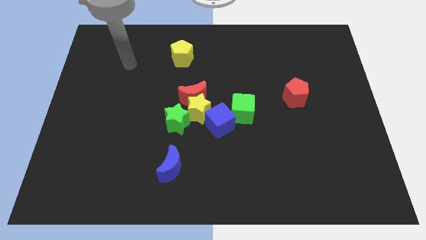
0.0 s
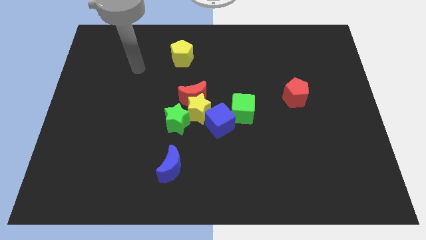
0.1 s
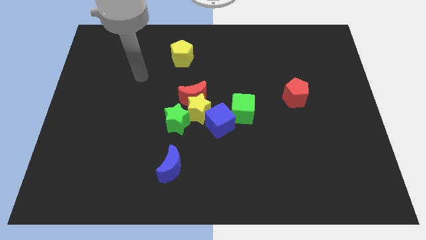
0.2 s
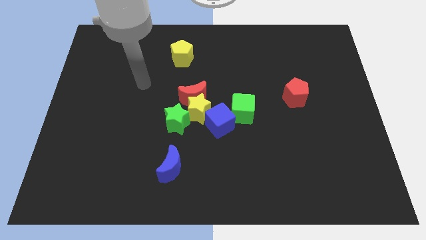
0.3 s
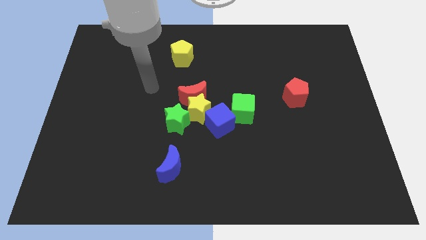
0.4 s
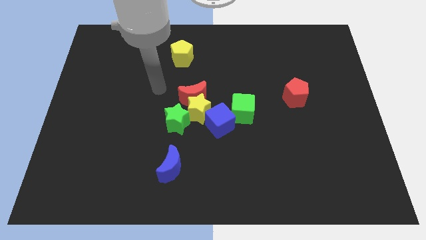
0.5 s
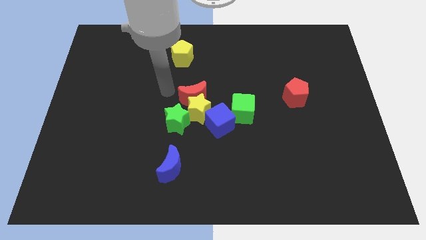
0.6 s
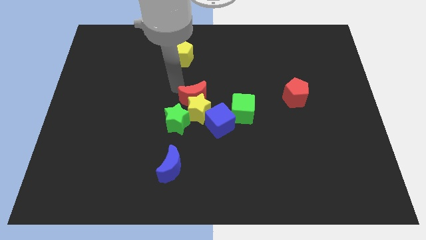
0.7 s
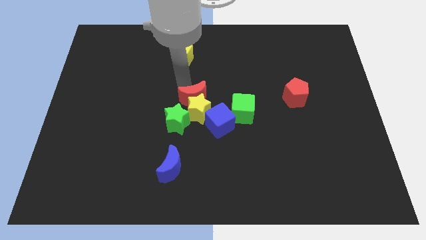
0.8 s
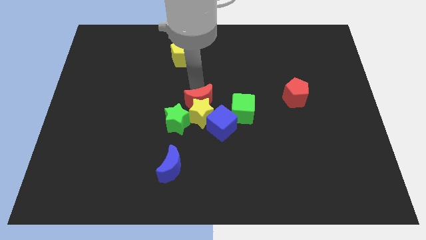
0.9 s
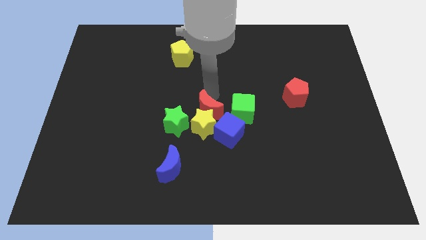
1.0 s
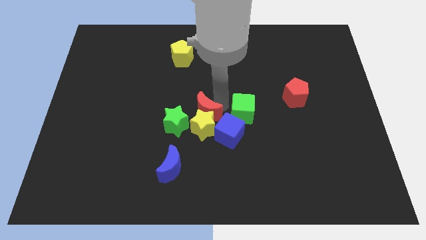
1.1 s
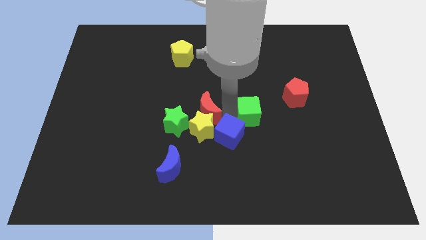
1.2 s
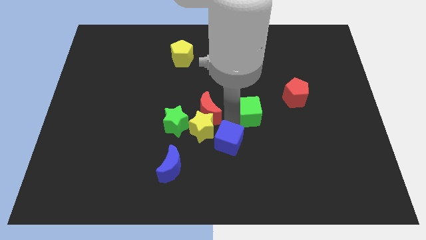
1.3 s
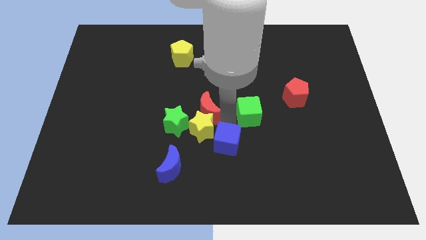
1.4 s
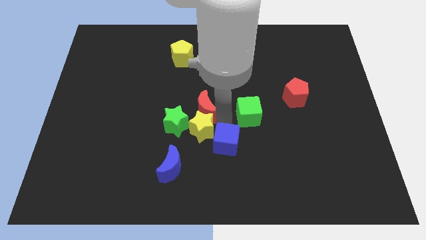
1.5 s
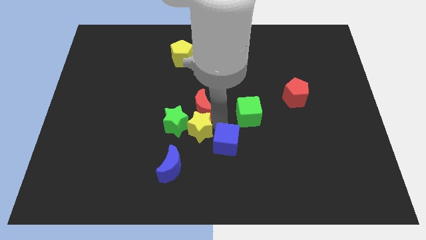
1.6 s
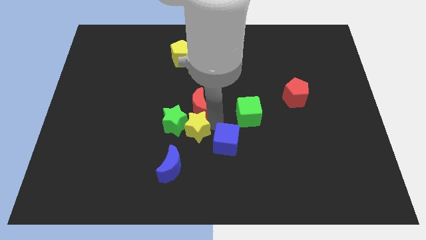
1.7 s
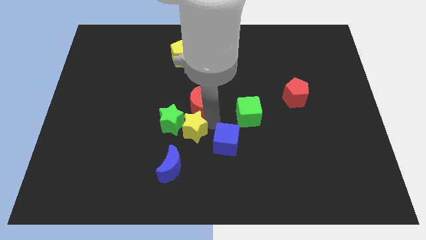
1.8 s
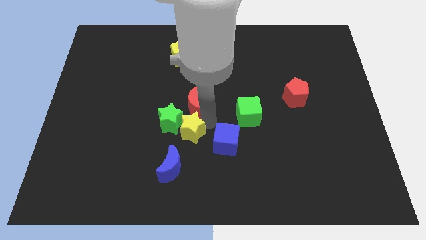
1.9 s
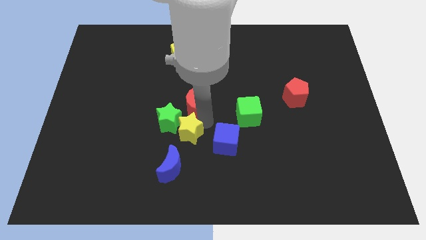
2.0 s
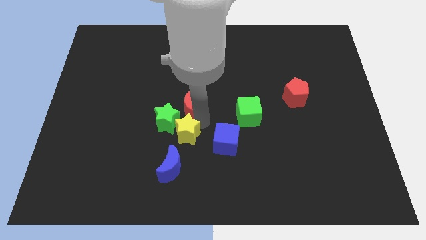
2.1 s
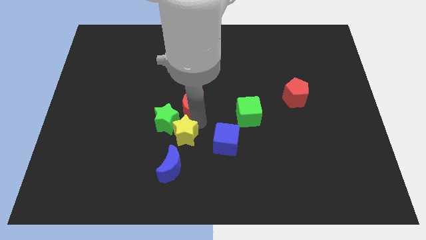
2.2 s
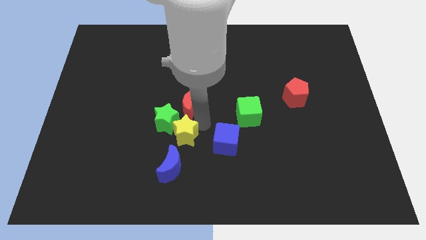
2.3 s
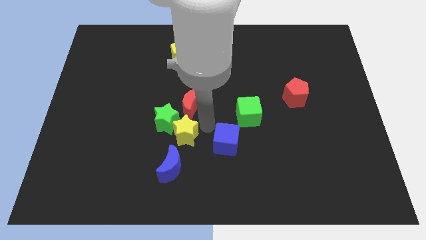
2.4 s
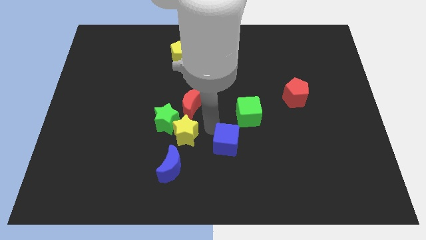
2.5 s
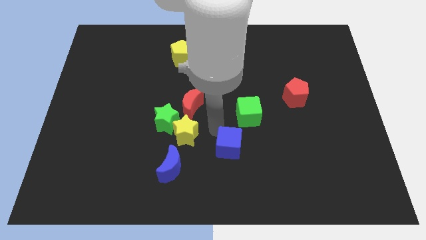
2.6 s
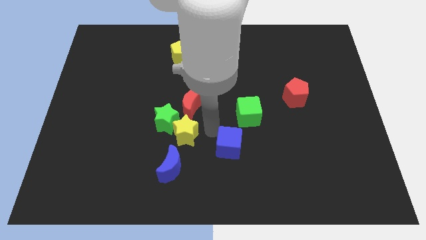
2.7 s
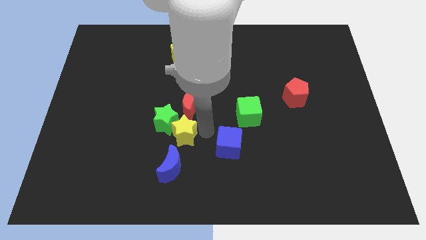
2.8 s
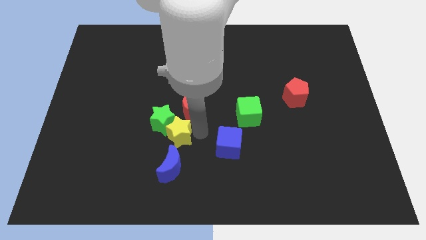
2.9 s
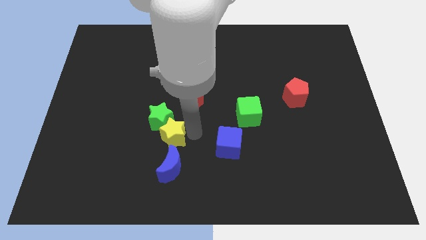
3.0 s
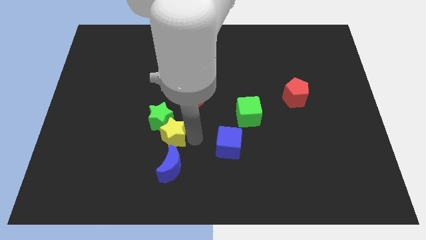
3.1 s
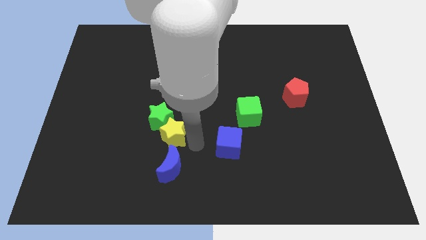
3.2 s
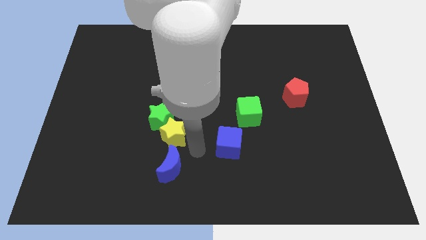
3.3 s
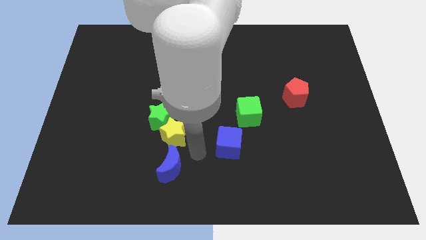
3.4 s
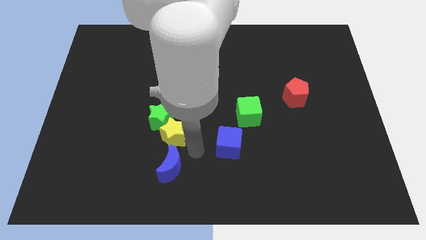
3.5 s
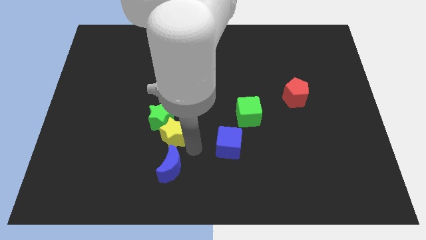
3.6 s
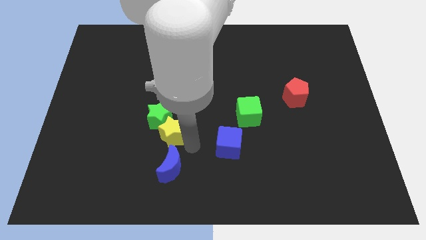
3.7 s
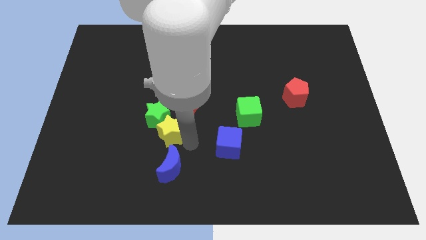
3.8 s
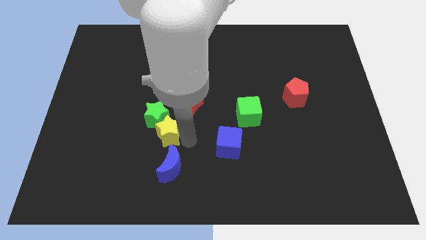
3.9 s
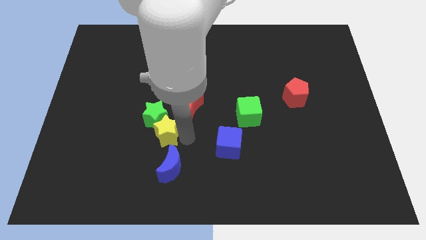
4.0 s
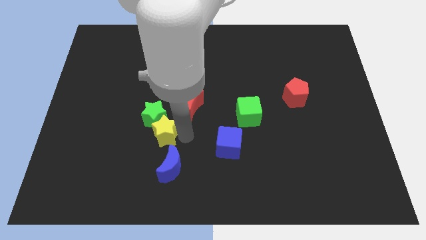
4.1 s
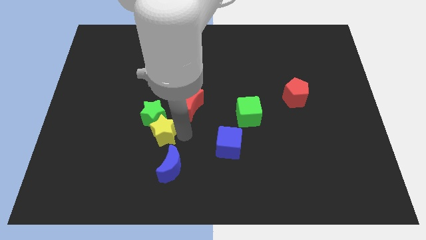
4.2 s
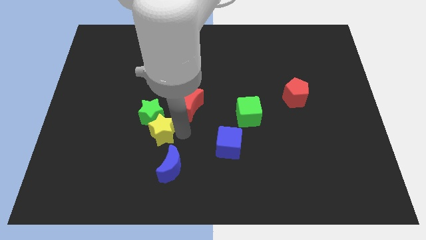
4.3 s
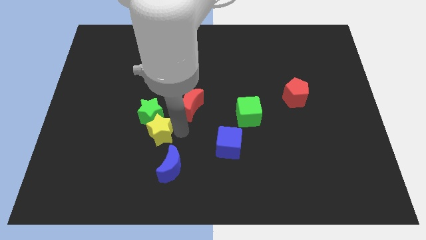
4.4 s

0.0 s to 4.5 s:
pull the yellow star apart from the clump

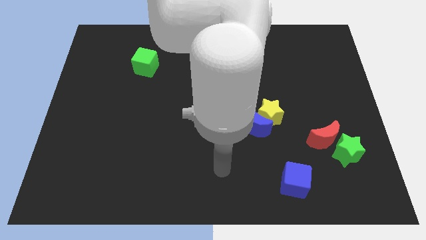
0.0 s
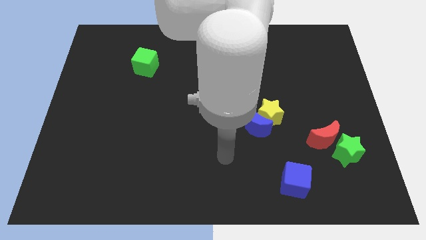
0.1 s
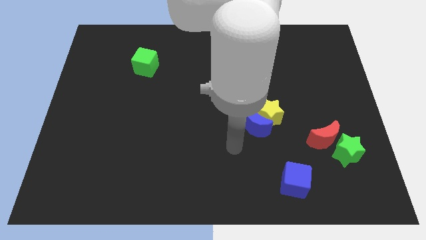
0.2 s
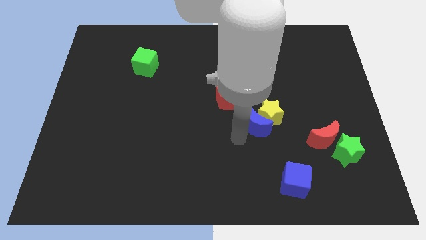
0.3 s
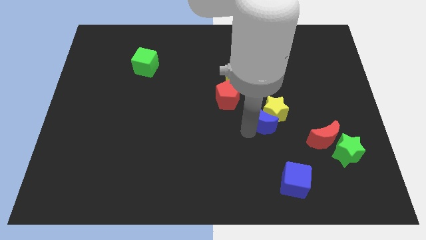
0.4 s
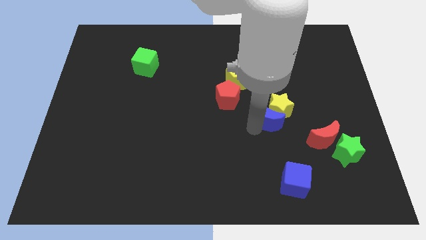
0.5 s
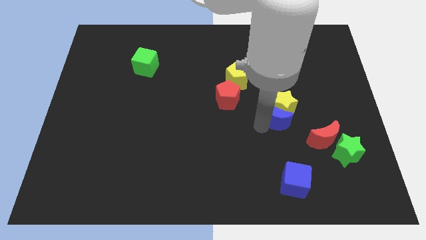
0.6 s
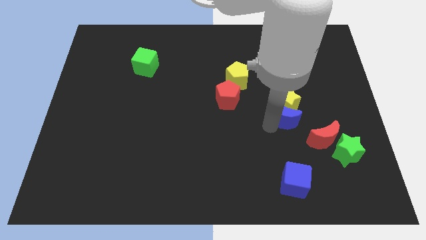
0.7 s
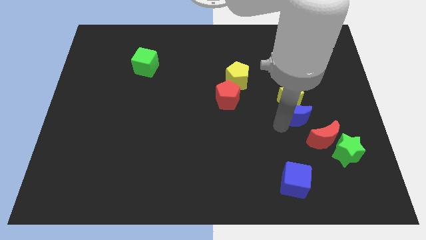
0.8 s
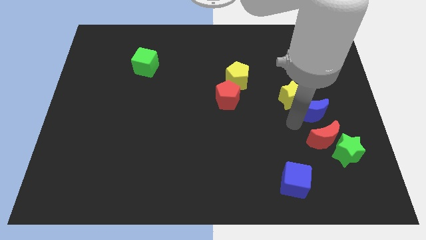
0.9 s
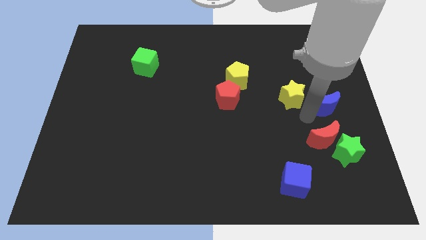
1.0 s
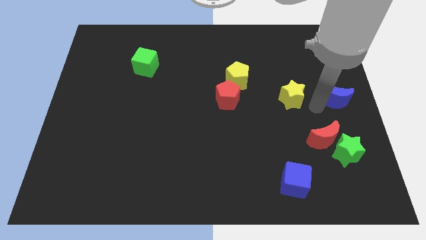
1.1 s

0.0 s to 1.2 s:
pull the yellow star apart from the blue moon

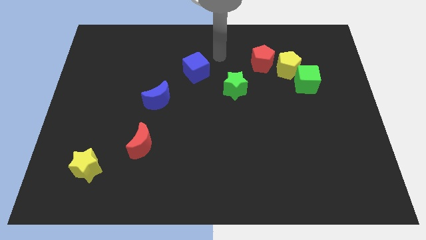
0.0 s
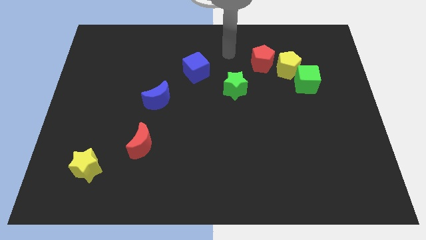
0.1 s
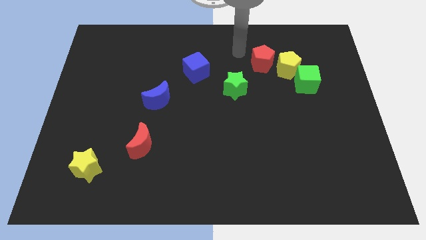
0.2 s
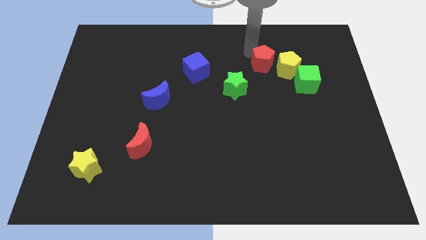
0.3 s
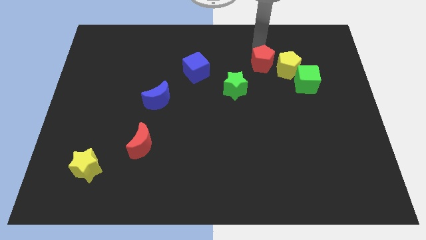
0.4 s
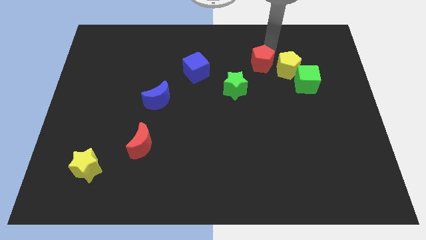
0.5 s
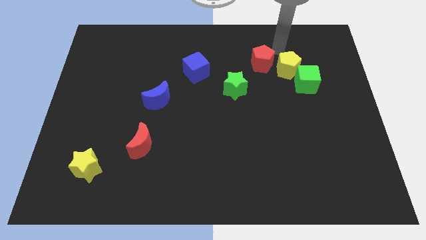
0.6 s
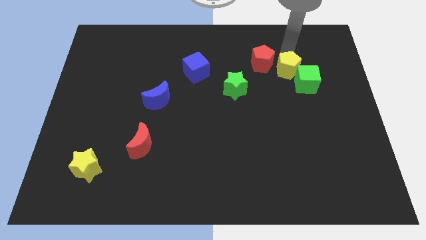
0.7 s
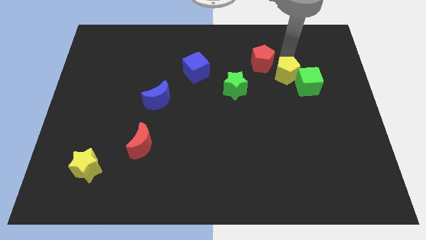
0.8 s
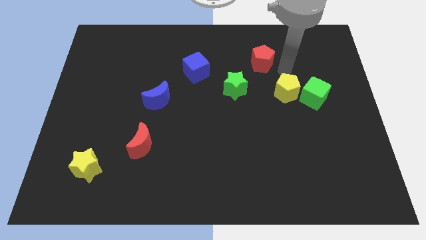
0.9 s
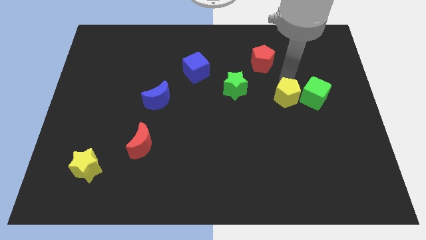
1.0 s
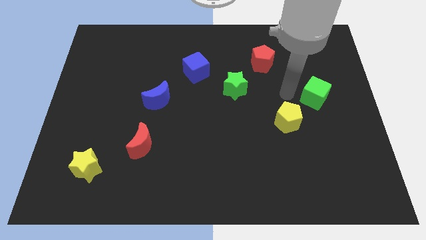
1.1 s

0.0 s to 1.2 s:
move the green cube away from the yellow pentagon

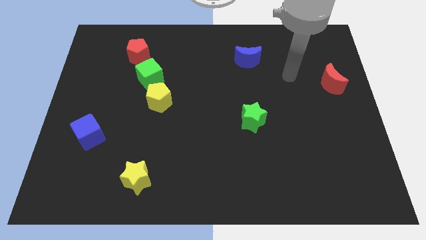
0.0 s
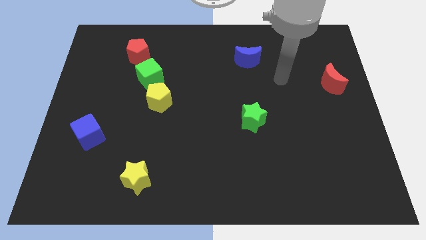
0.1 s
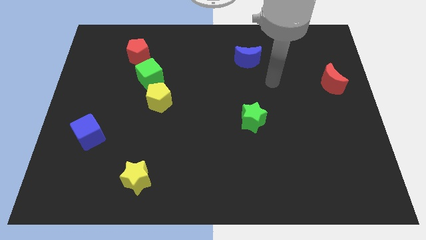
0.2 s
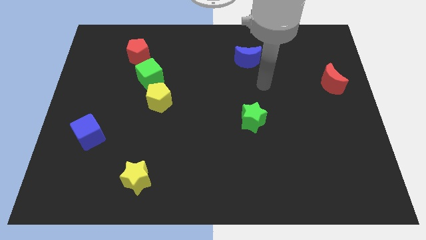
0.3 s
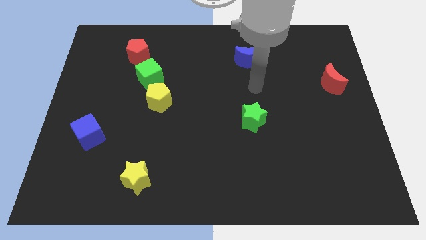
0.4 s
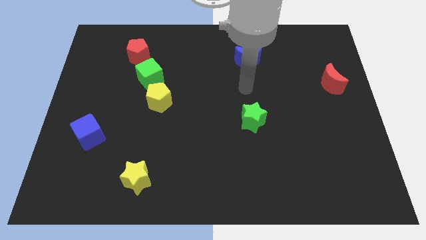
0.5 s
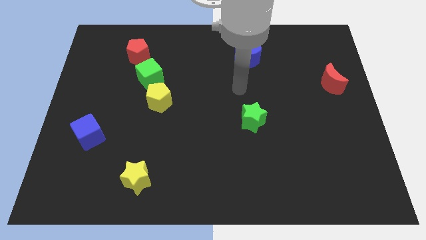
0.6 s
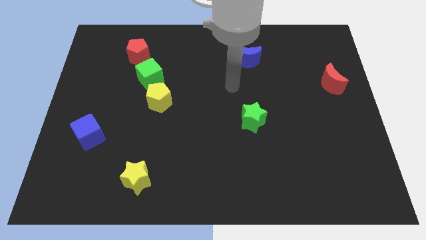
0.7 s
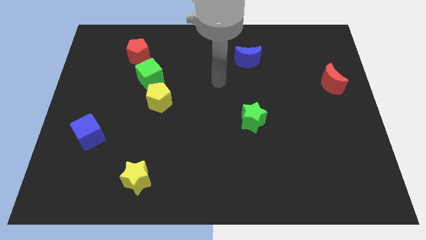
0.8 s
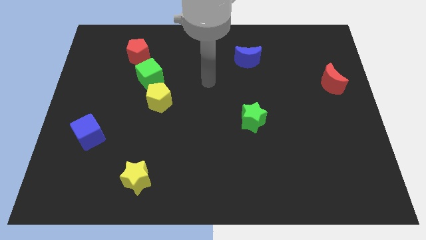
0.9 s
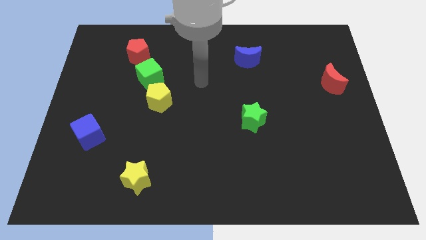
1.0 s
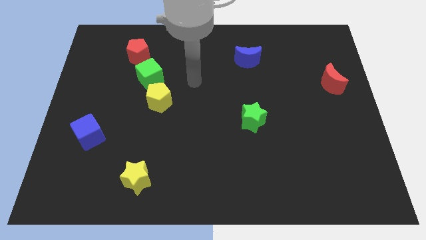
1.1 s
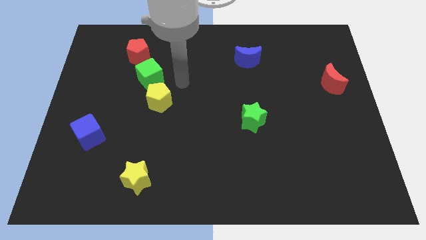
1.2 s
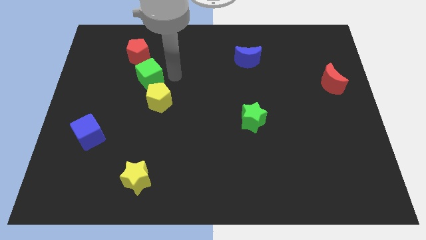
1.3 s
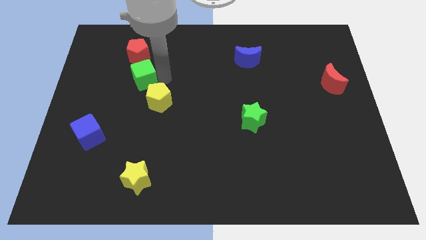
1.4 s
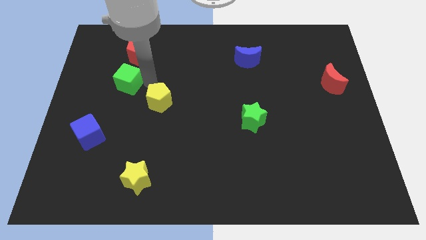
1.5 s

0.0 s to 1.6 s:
separate the yellow pentagon from the green cube

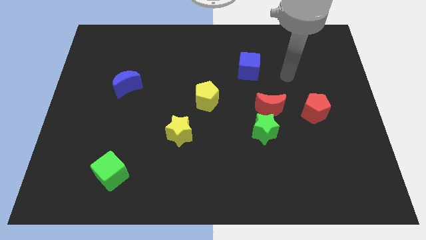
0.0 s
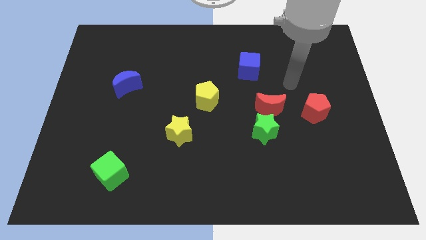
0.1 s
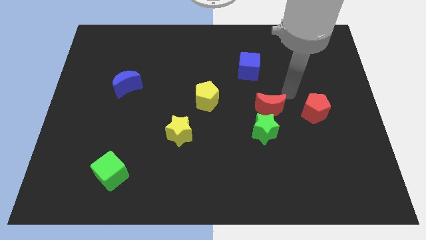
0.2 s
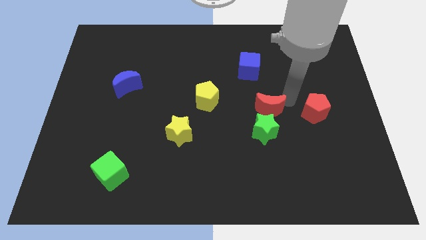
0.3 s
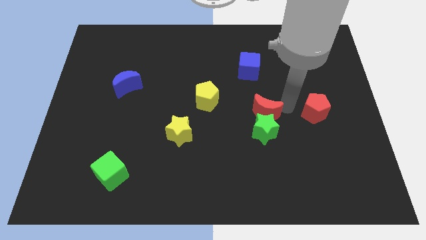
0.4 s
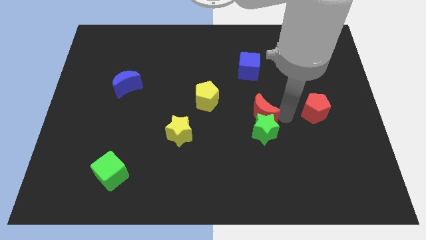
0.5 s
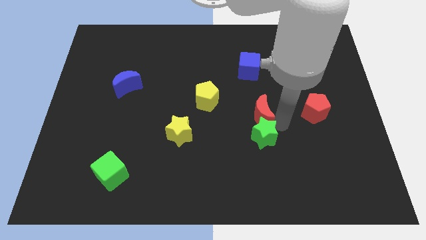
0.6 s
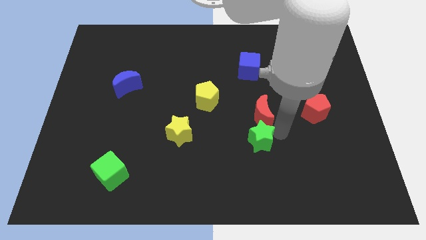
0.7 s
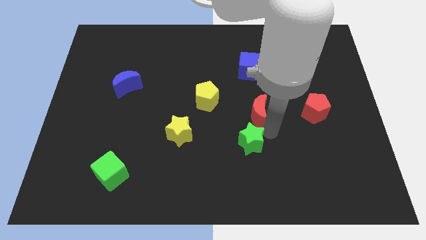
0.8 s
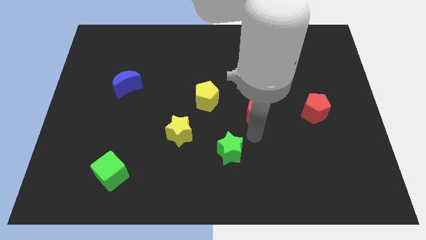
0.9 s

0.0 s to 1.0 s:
move the red moon away from the green star
